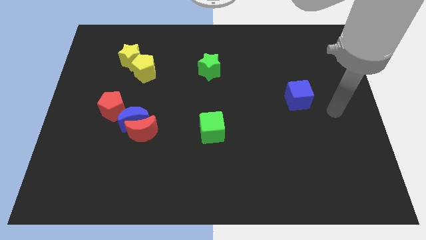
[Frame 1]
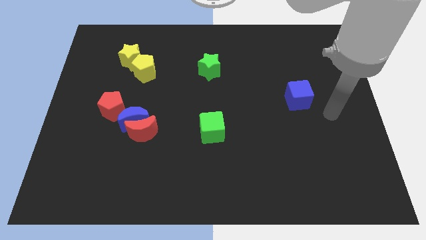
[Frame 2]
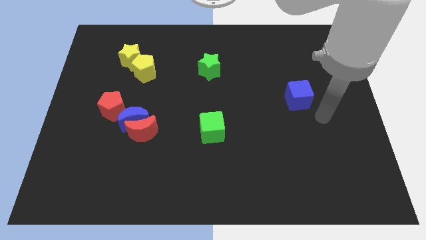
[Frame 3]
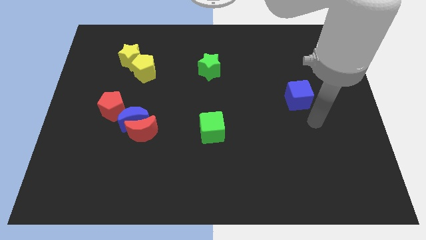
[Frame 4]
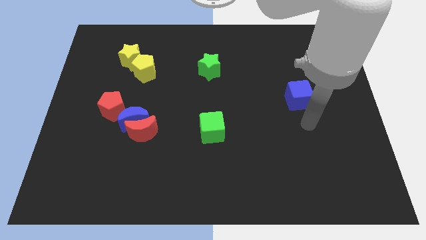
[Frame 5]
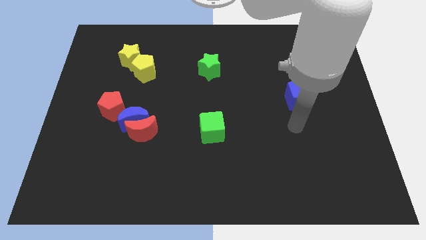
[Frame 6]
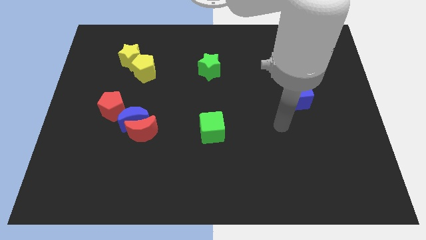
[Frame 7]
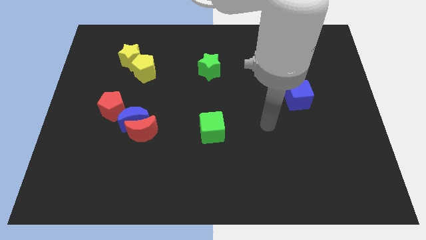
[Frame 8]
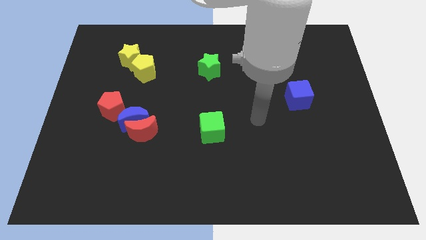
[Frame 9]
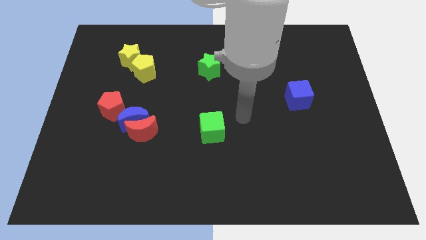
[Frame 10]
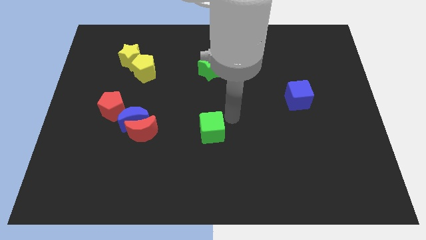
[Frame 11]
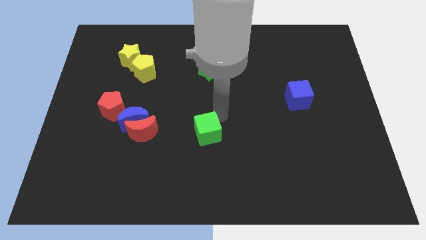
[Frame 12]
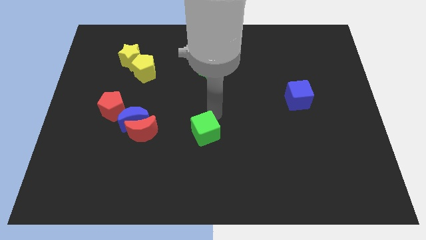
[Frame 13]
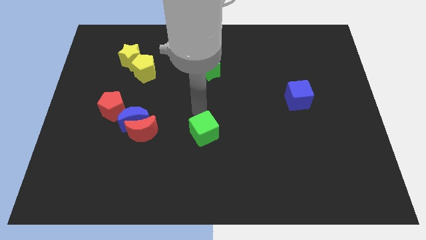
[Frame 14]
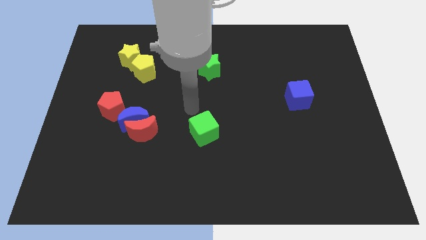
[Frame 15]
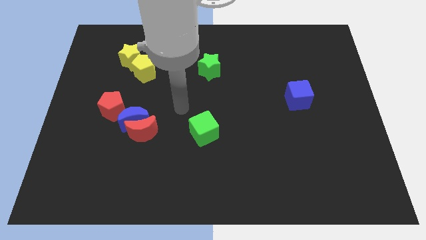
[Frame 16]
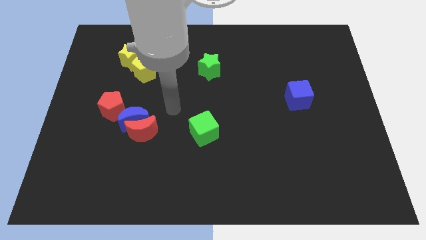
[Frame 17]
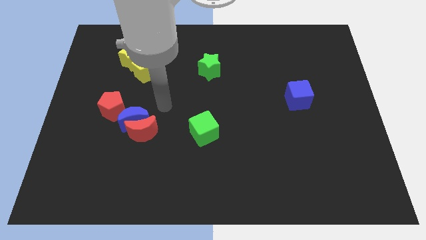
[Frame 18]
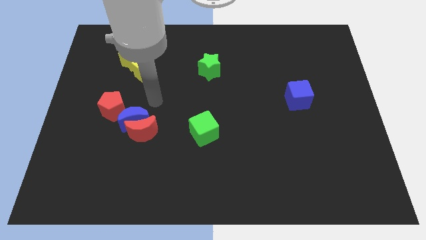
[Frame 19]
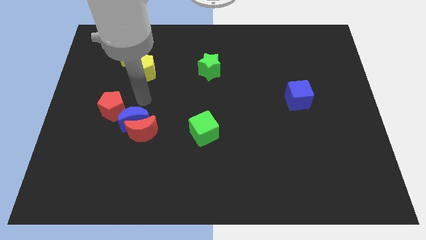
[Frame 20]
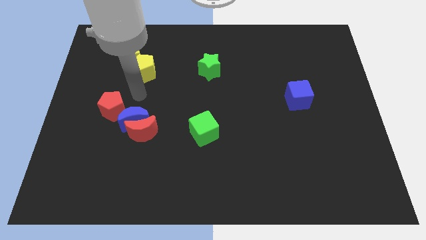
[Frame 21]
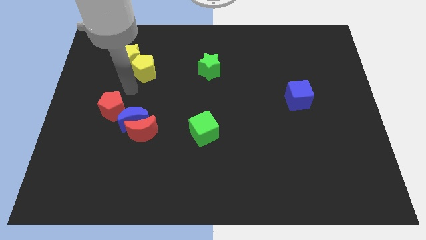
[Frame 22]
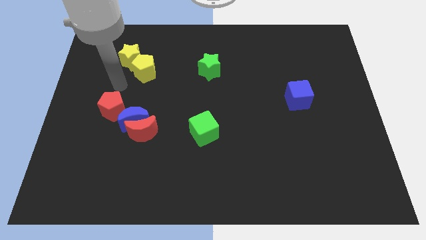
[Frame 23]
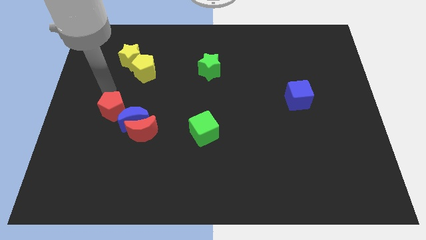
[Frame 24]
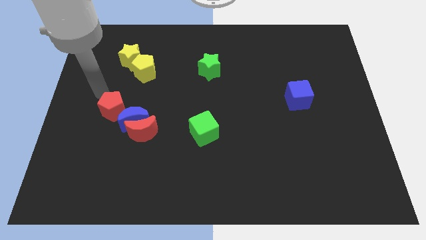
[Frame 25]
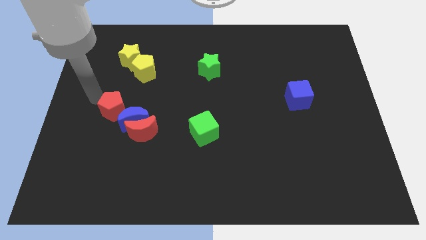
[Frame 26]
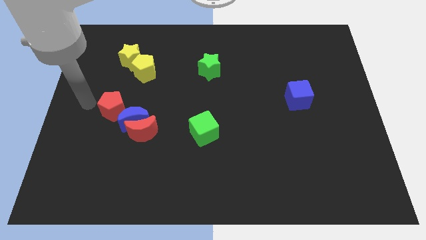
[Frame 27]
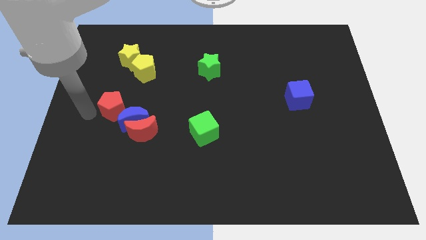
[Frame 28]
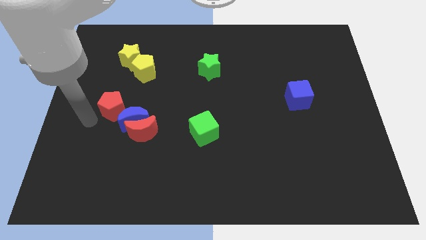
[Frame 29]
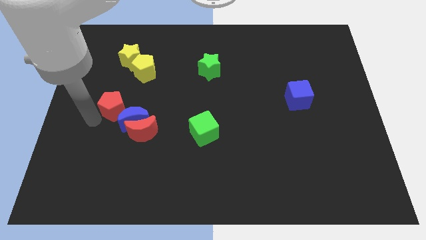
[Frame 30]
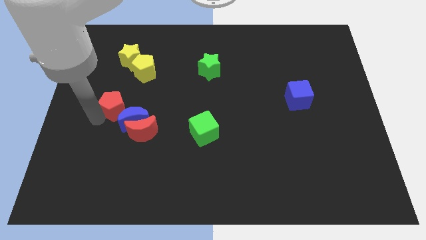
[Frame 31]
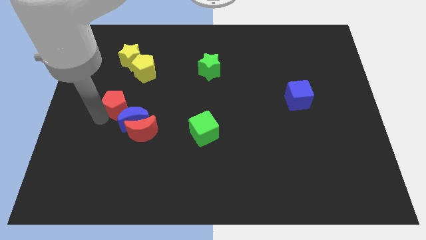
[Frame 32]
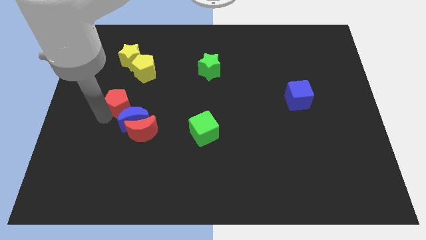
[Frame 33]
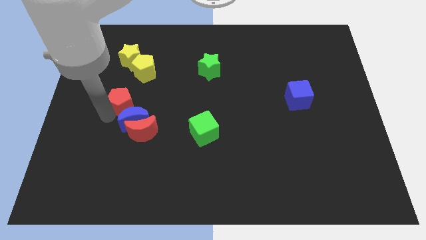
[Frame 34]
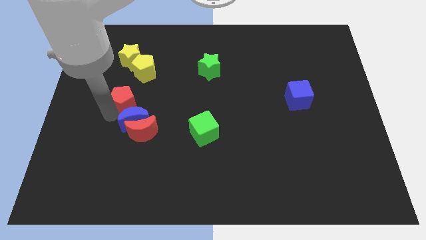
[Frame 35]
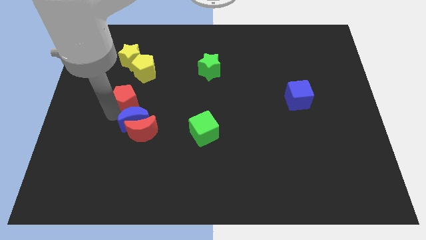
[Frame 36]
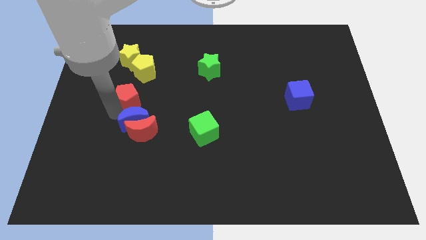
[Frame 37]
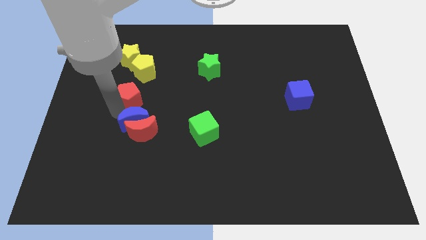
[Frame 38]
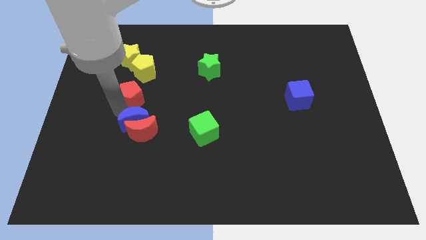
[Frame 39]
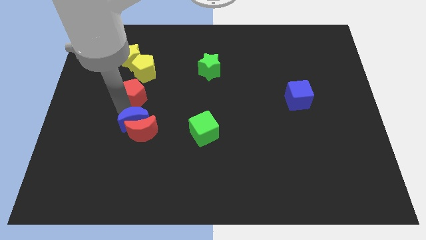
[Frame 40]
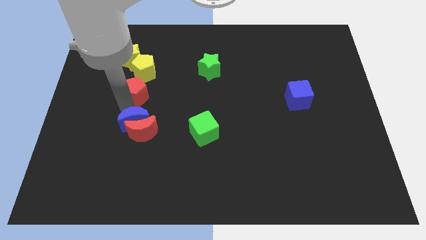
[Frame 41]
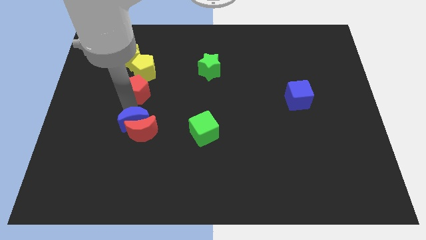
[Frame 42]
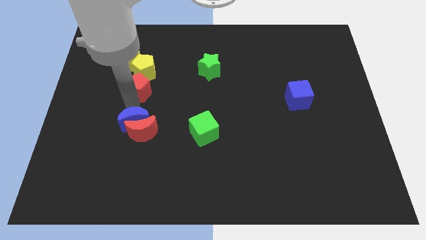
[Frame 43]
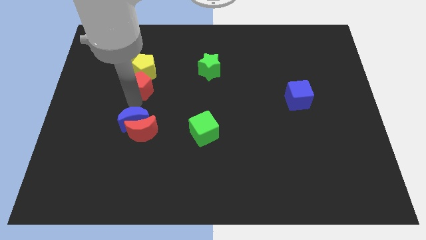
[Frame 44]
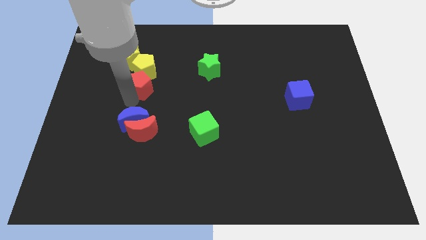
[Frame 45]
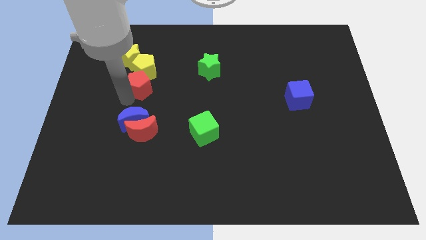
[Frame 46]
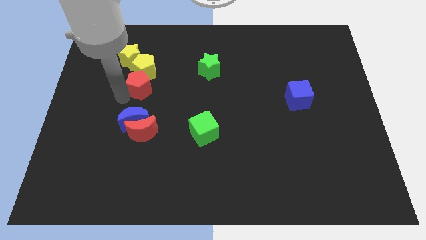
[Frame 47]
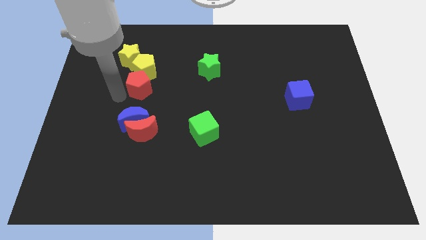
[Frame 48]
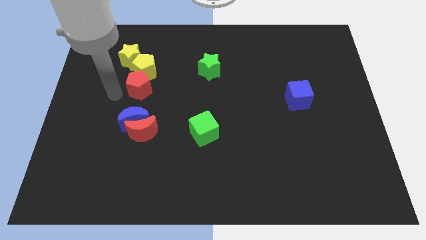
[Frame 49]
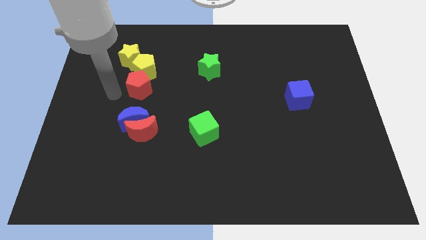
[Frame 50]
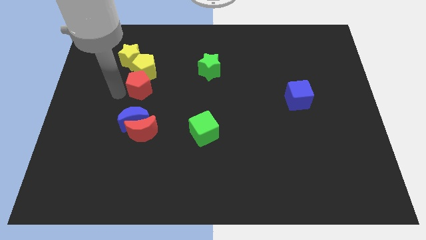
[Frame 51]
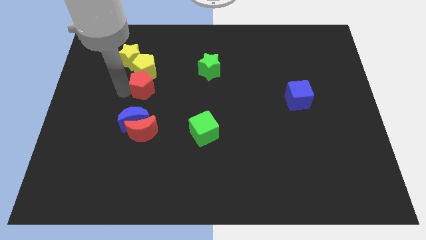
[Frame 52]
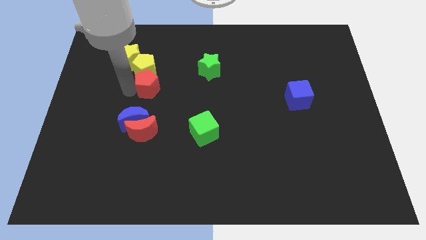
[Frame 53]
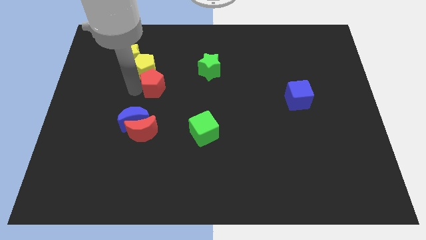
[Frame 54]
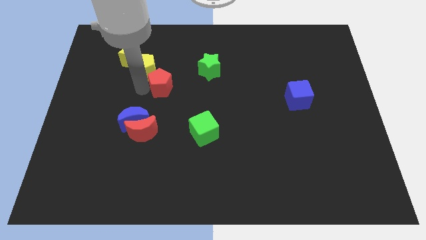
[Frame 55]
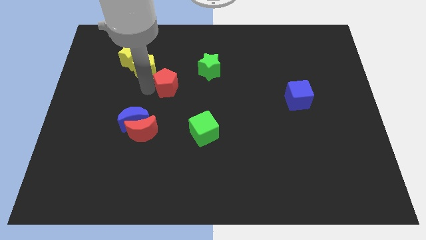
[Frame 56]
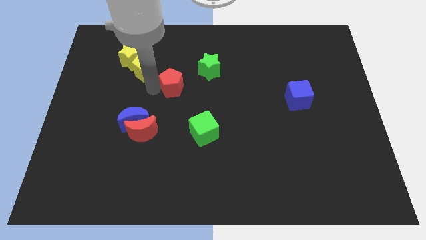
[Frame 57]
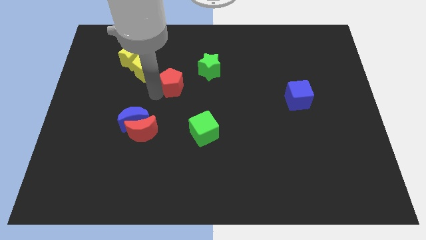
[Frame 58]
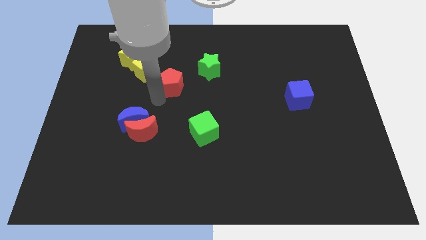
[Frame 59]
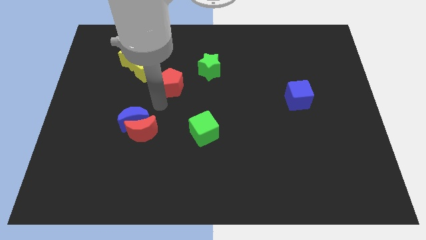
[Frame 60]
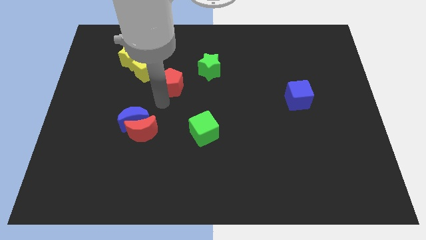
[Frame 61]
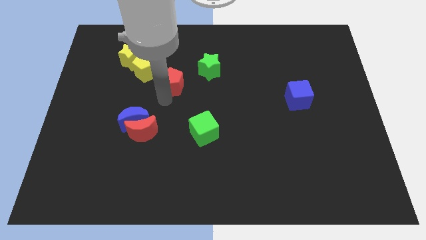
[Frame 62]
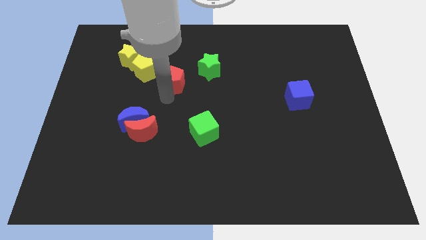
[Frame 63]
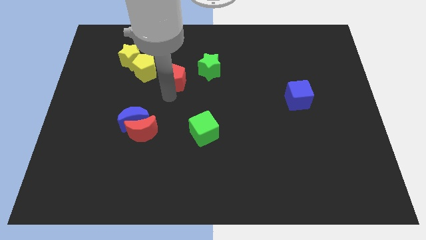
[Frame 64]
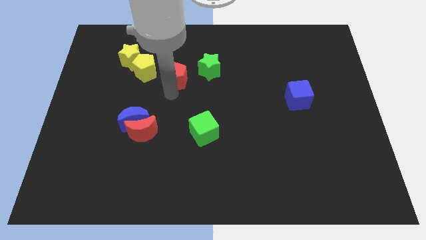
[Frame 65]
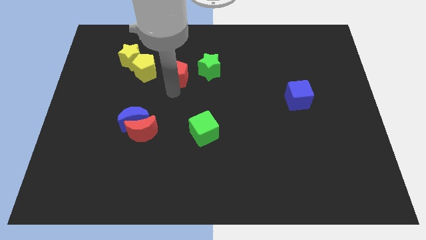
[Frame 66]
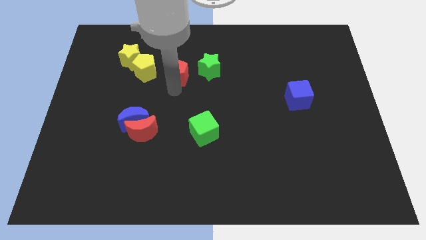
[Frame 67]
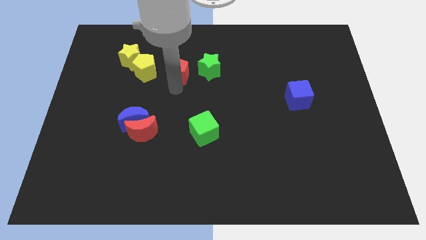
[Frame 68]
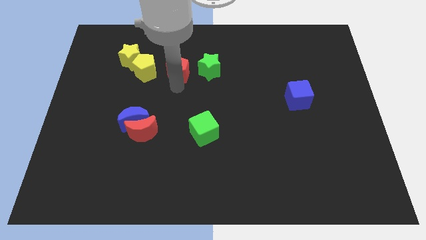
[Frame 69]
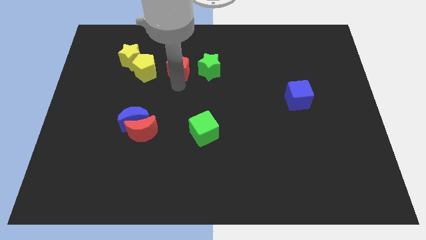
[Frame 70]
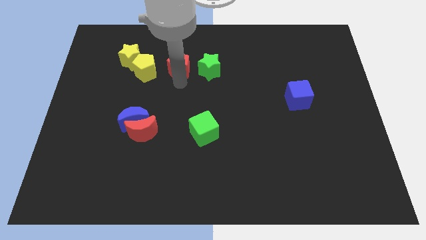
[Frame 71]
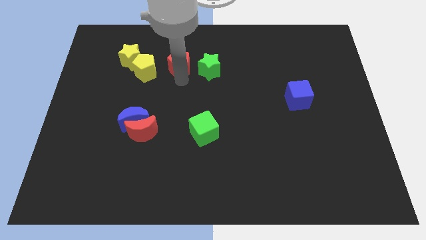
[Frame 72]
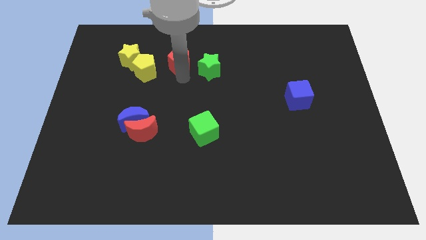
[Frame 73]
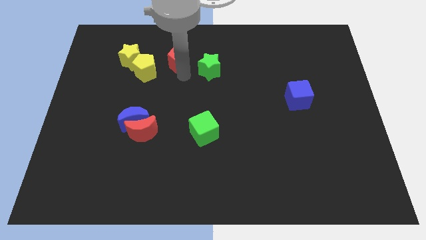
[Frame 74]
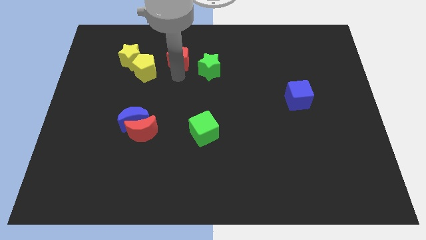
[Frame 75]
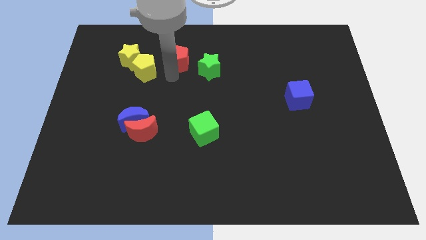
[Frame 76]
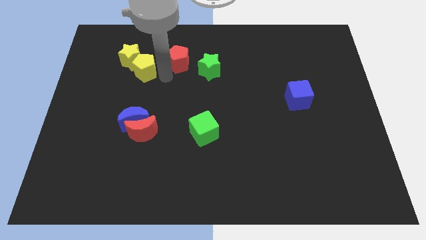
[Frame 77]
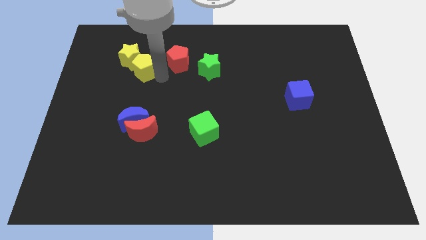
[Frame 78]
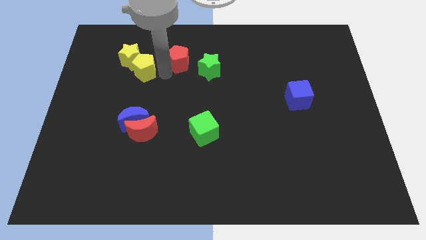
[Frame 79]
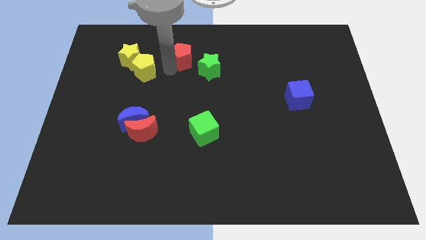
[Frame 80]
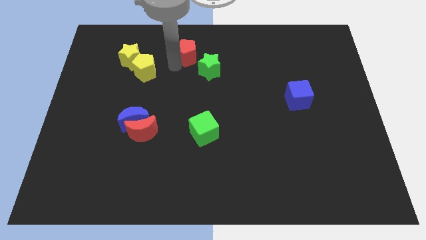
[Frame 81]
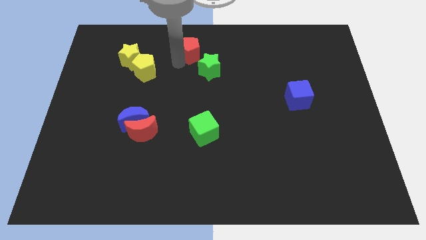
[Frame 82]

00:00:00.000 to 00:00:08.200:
move the red pentagon to the top
